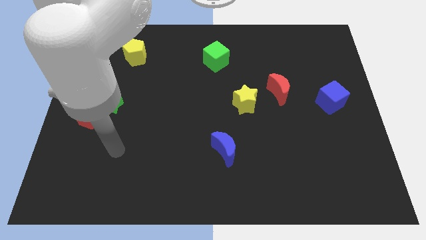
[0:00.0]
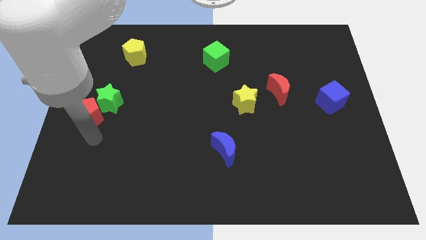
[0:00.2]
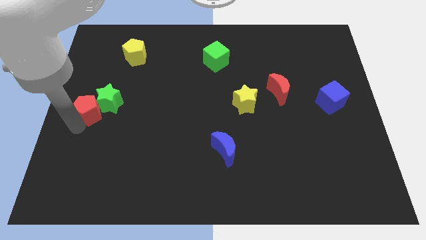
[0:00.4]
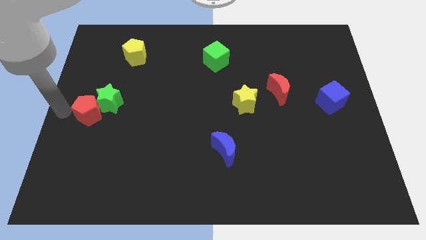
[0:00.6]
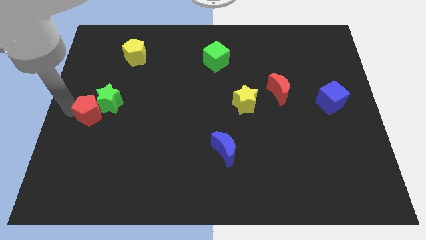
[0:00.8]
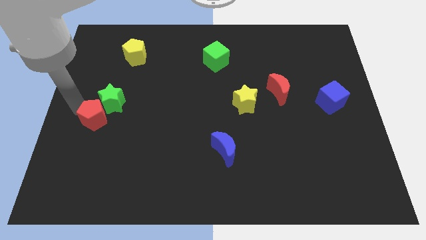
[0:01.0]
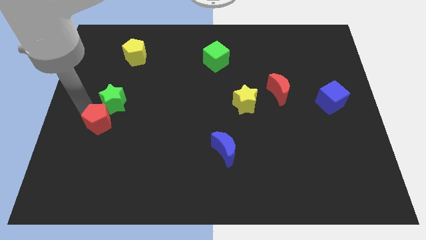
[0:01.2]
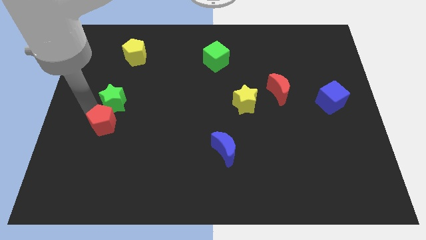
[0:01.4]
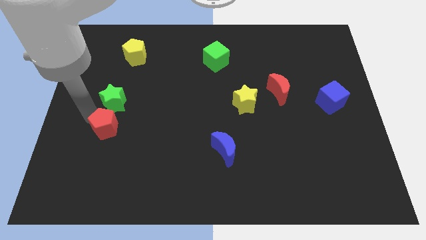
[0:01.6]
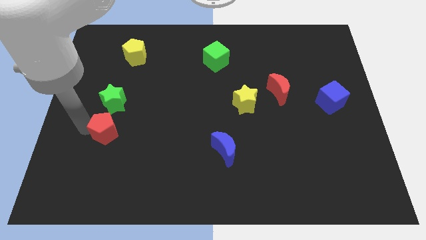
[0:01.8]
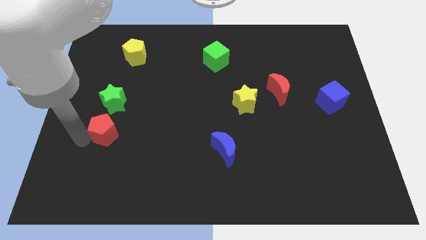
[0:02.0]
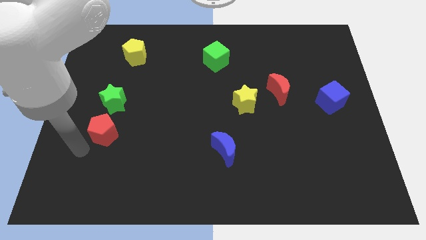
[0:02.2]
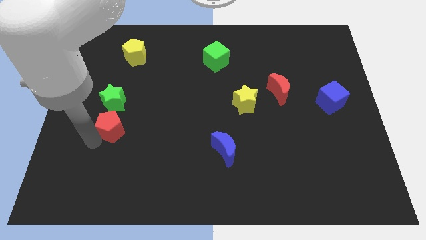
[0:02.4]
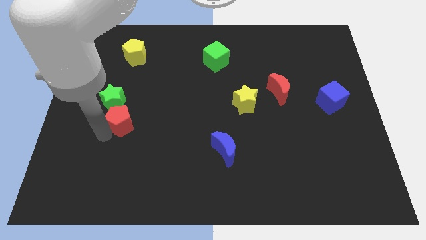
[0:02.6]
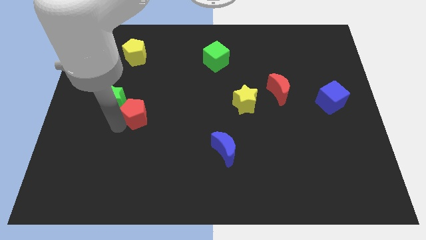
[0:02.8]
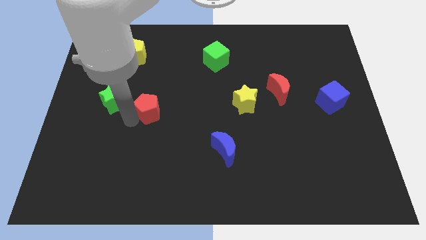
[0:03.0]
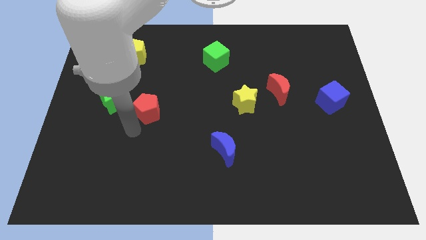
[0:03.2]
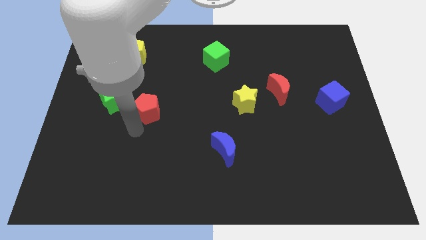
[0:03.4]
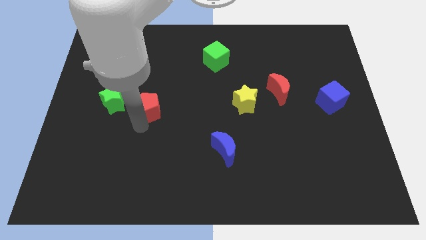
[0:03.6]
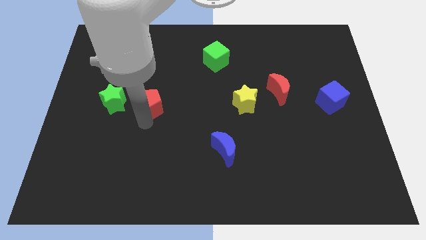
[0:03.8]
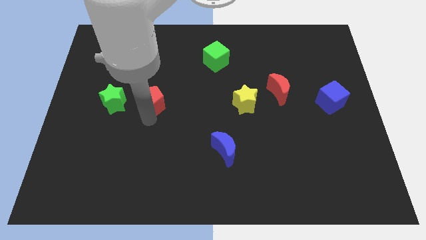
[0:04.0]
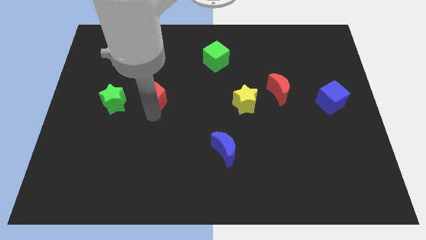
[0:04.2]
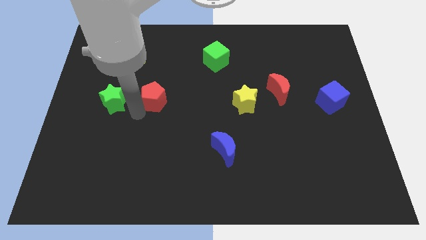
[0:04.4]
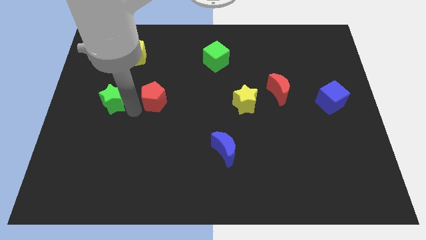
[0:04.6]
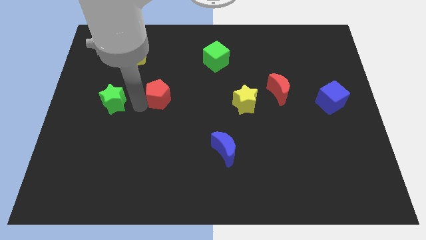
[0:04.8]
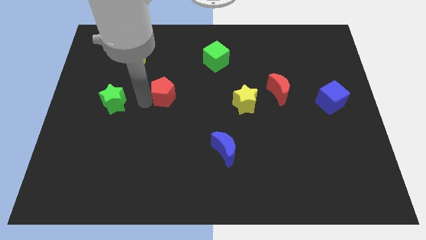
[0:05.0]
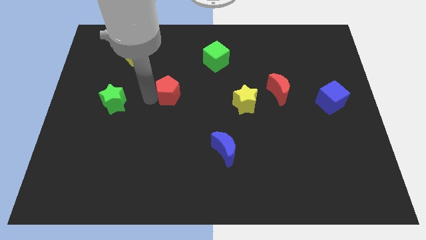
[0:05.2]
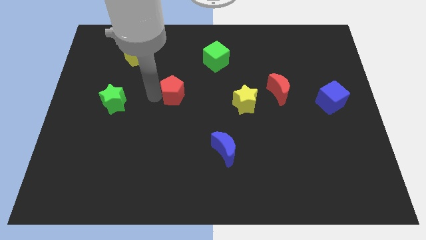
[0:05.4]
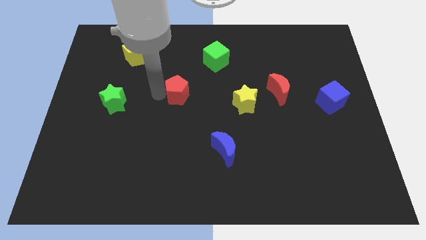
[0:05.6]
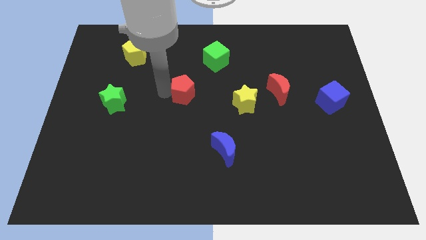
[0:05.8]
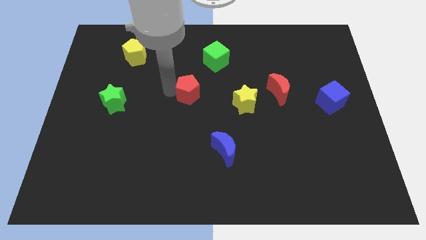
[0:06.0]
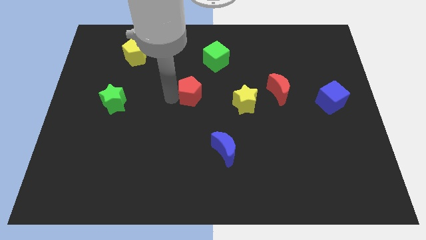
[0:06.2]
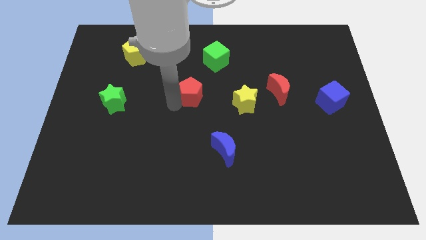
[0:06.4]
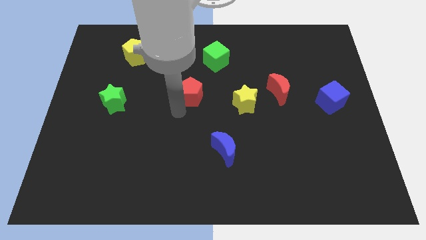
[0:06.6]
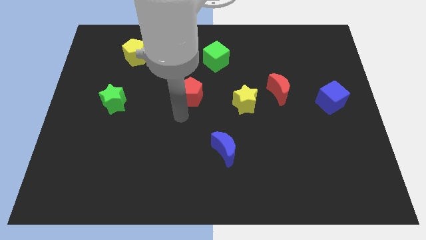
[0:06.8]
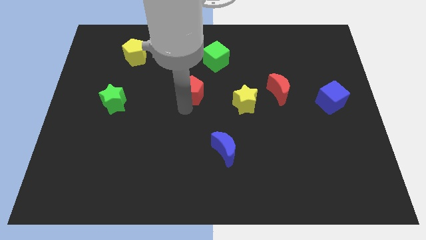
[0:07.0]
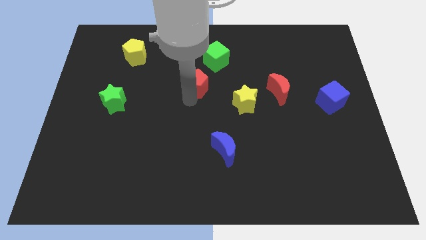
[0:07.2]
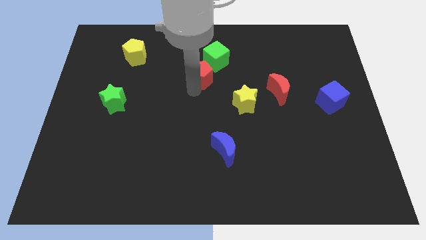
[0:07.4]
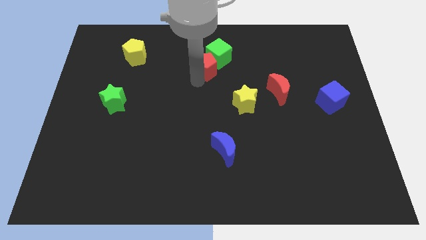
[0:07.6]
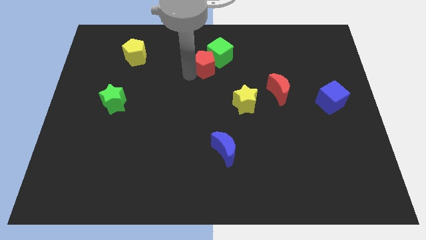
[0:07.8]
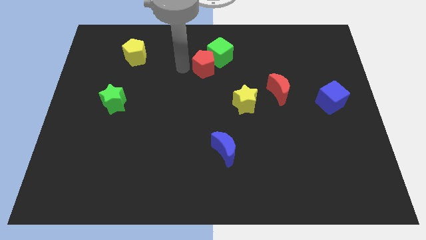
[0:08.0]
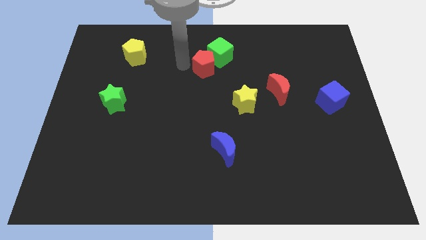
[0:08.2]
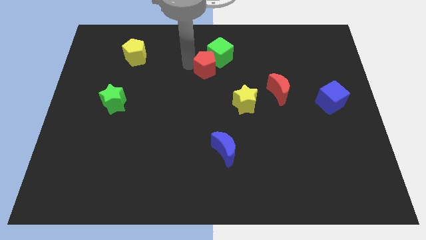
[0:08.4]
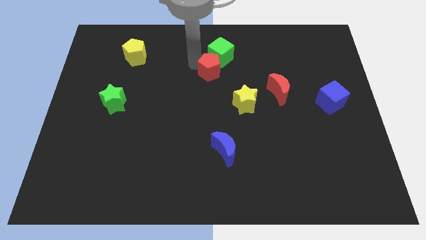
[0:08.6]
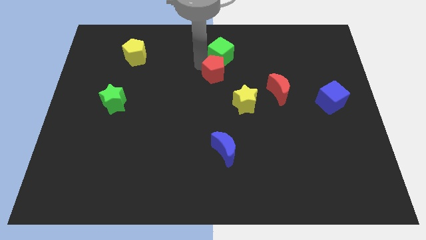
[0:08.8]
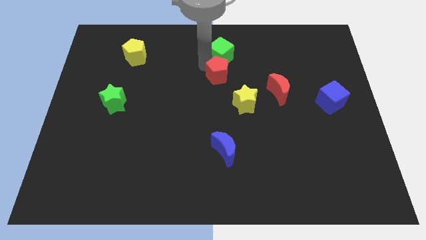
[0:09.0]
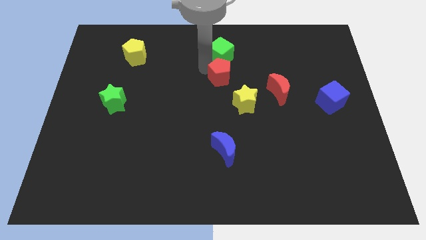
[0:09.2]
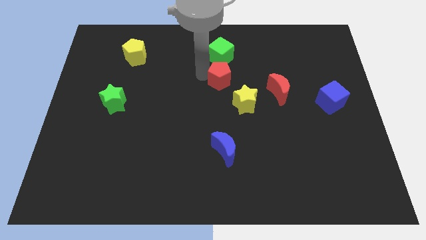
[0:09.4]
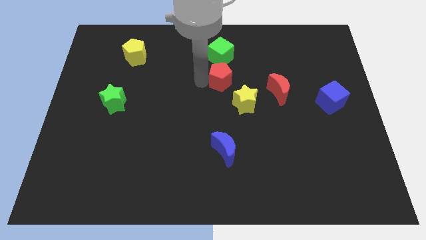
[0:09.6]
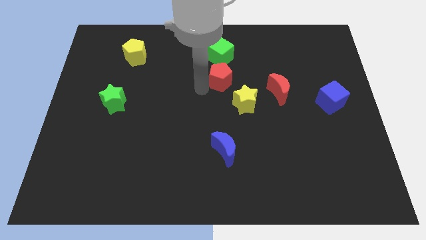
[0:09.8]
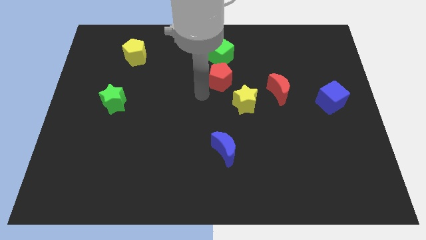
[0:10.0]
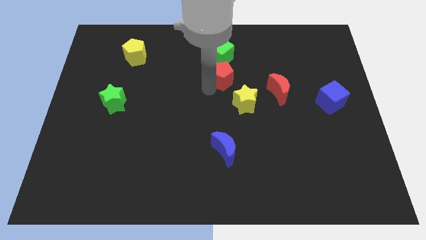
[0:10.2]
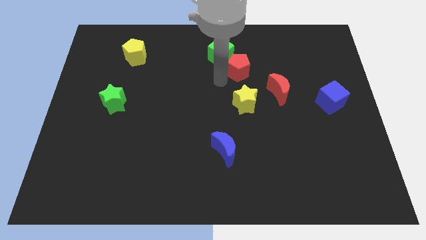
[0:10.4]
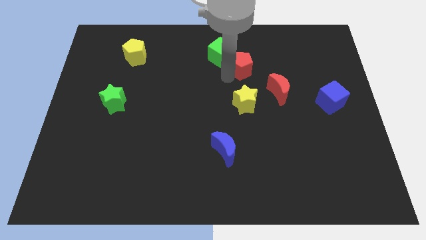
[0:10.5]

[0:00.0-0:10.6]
move the red pentagon to the right side of the green cube

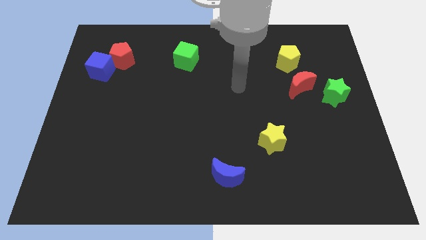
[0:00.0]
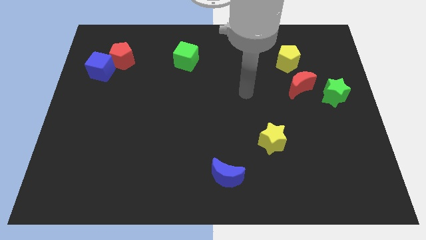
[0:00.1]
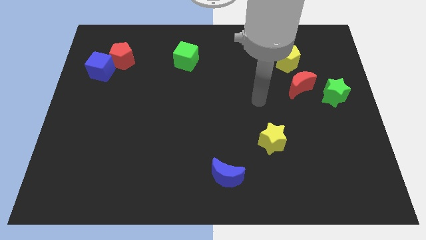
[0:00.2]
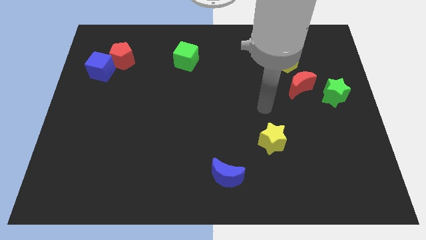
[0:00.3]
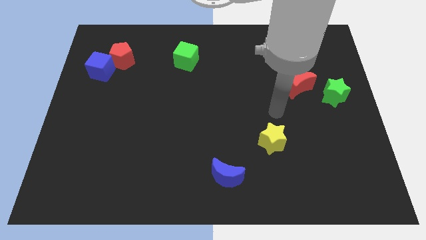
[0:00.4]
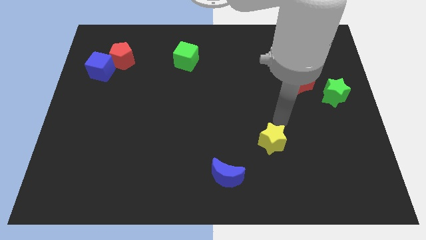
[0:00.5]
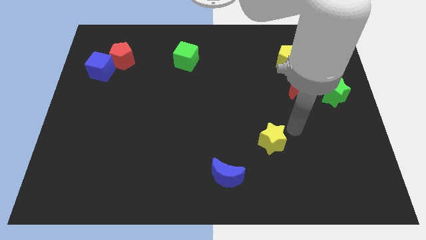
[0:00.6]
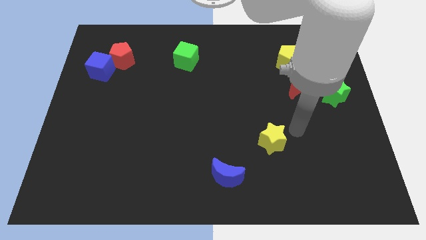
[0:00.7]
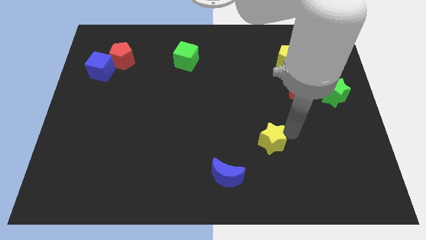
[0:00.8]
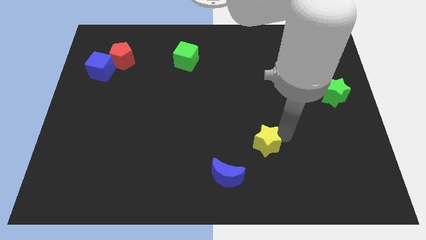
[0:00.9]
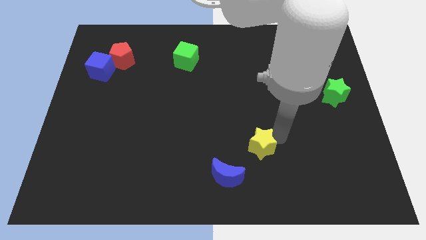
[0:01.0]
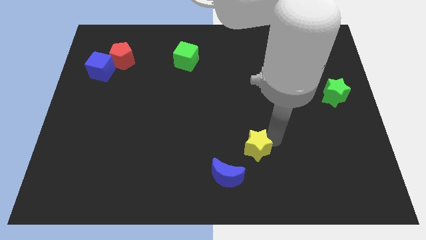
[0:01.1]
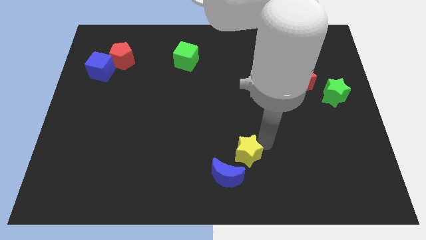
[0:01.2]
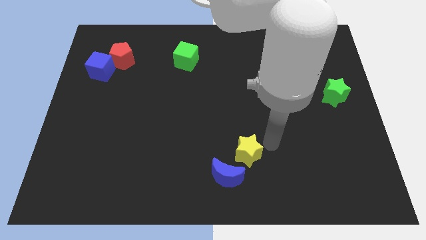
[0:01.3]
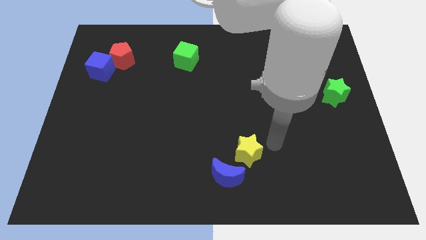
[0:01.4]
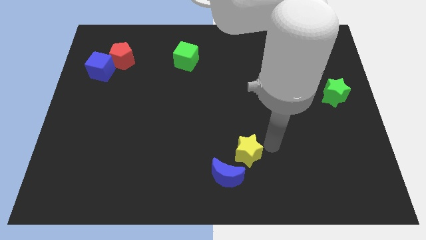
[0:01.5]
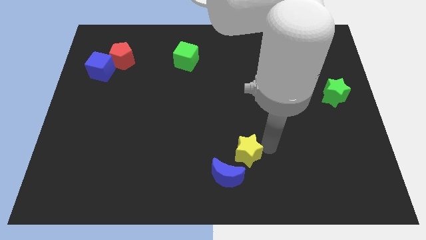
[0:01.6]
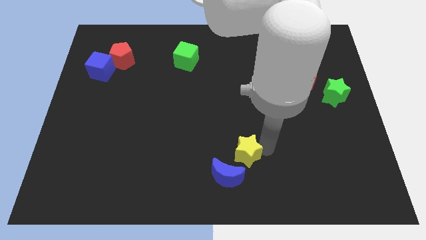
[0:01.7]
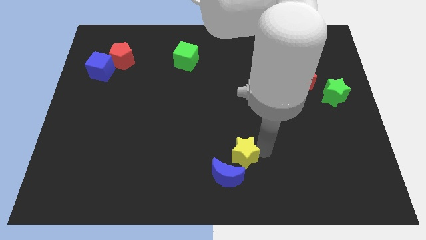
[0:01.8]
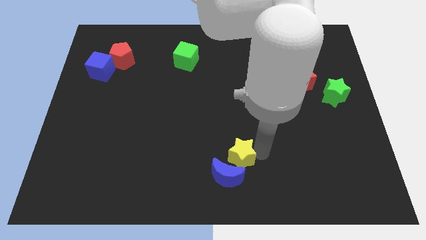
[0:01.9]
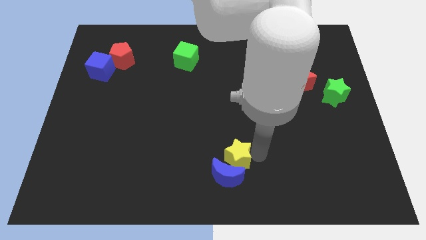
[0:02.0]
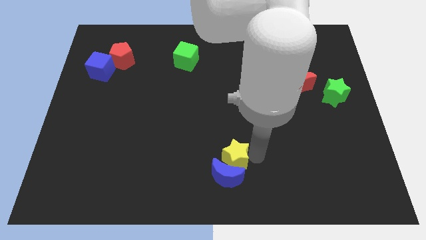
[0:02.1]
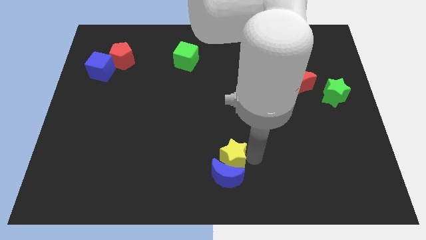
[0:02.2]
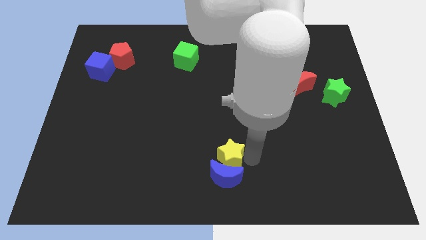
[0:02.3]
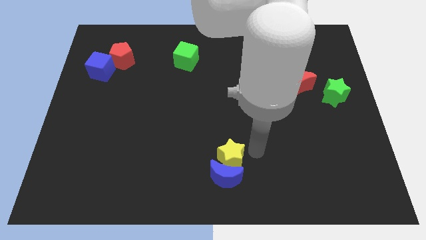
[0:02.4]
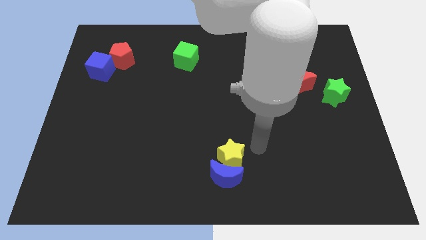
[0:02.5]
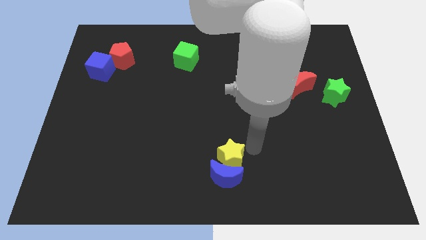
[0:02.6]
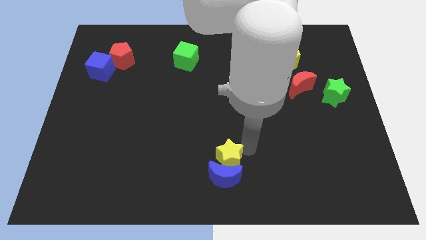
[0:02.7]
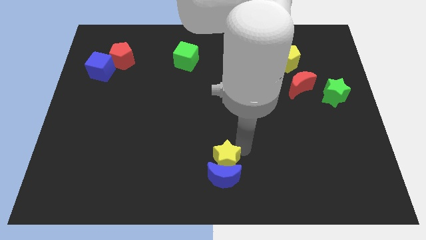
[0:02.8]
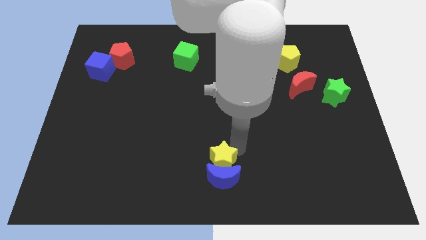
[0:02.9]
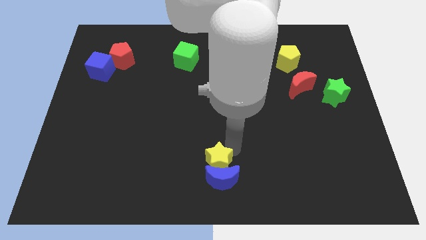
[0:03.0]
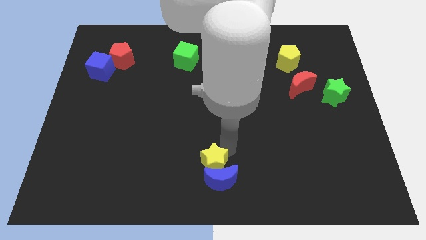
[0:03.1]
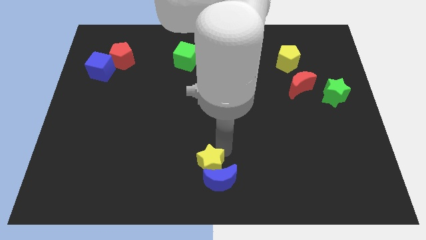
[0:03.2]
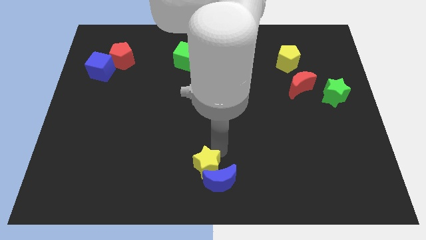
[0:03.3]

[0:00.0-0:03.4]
push the yellow star just left of the blue moon
